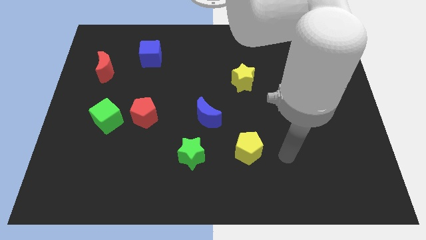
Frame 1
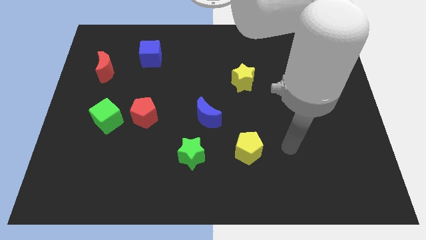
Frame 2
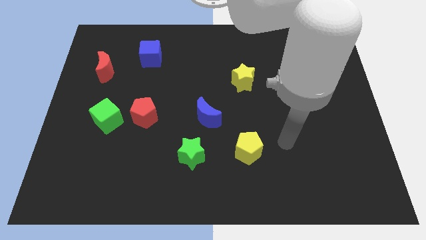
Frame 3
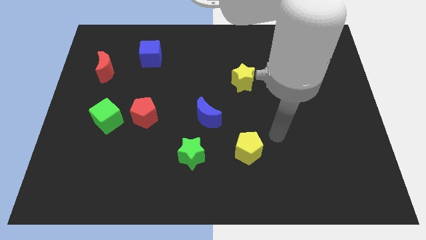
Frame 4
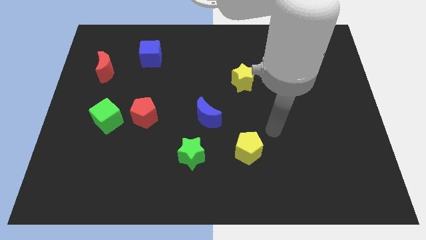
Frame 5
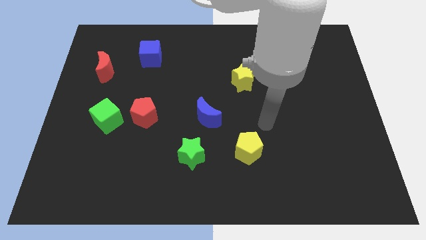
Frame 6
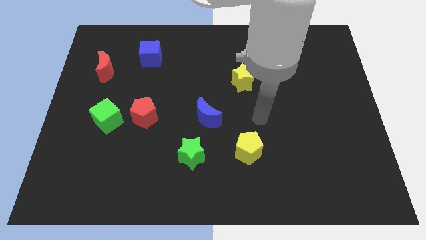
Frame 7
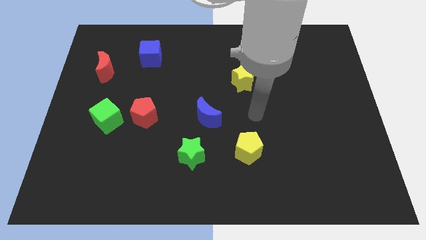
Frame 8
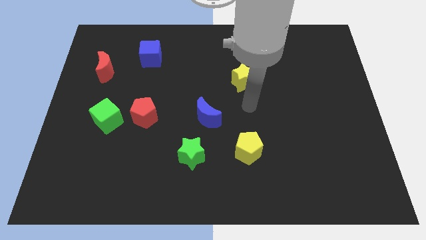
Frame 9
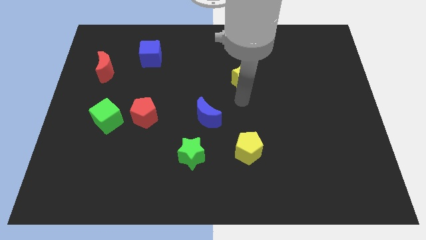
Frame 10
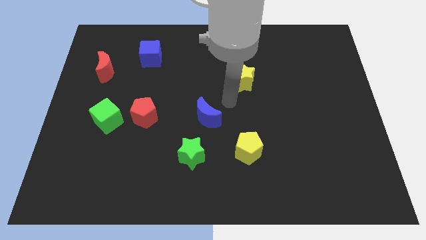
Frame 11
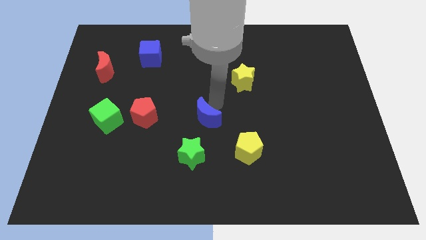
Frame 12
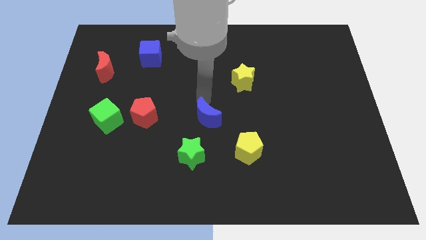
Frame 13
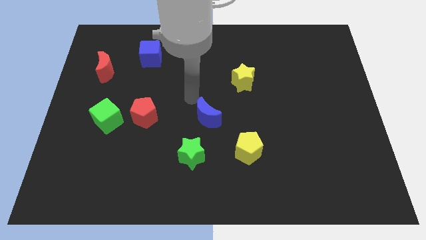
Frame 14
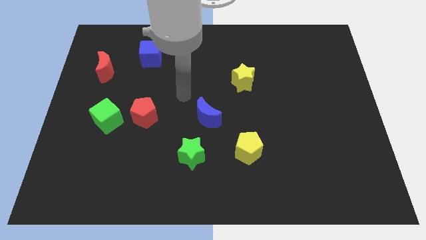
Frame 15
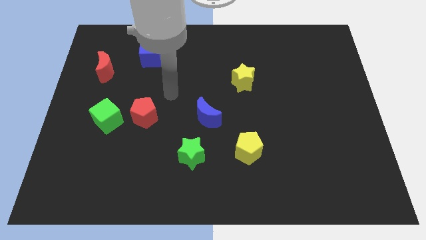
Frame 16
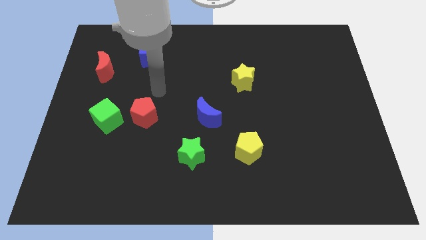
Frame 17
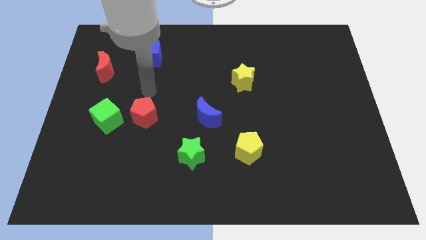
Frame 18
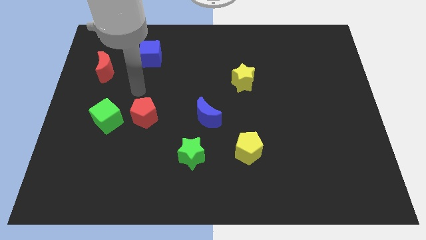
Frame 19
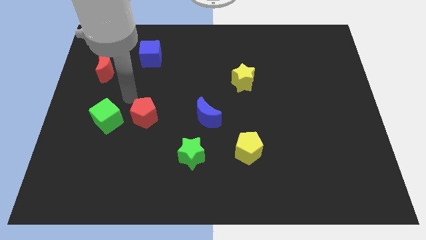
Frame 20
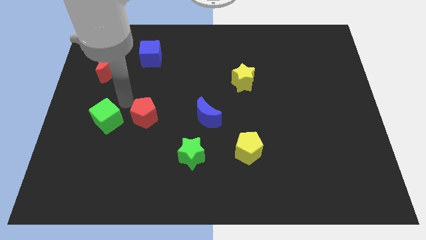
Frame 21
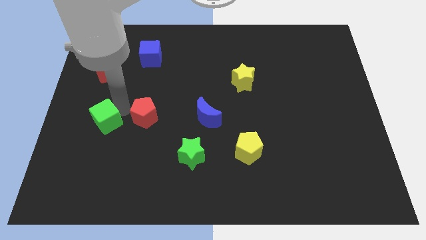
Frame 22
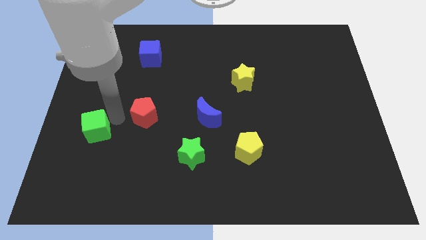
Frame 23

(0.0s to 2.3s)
separate the red pentagon from the green cube

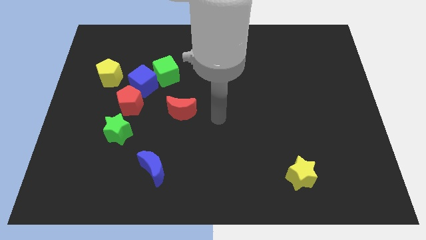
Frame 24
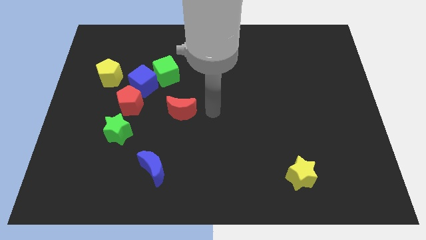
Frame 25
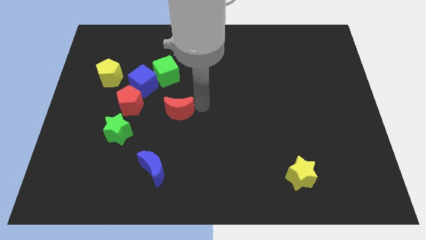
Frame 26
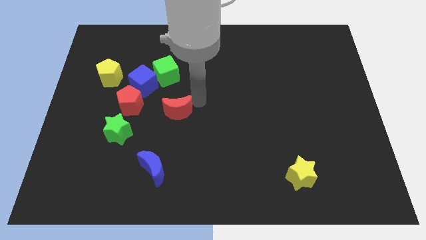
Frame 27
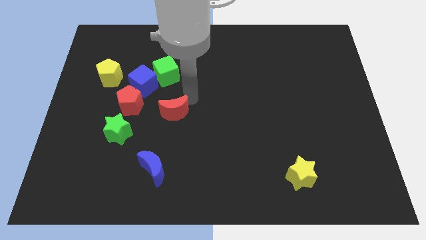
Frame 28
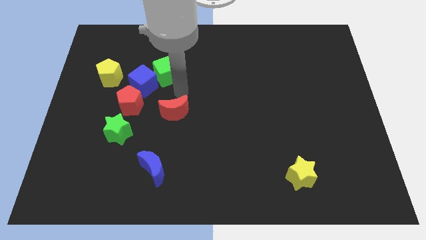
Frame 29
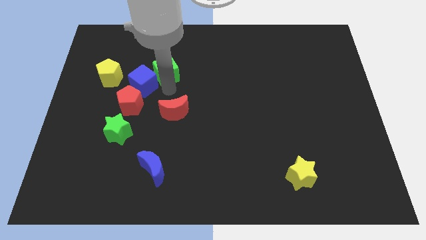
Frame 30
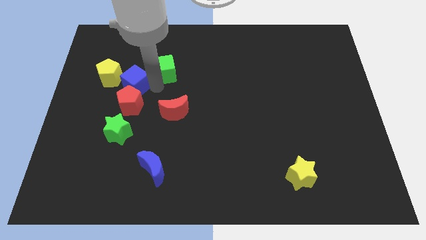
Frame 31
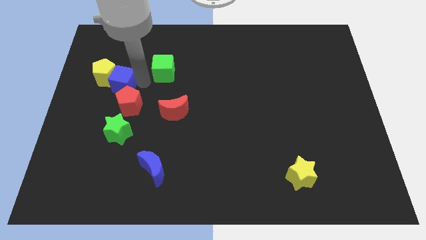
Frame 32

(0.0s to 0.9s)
pull the green cube apart from the blue cube

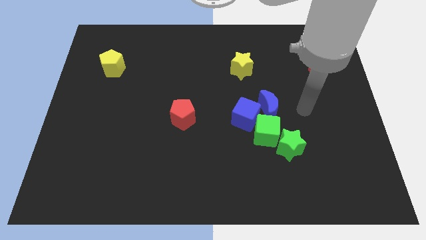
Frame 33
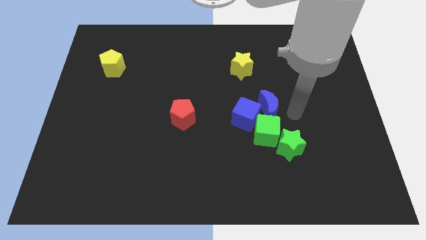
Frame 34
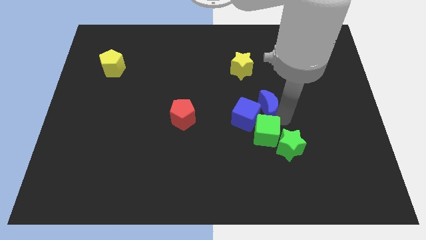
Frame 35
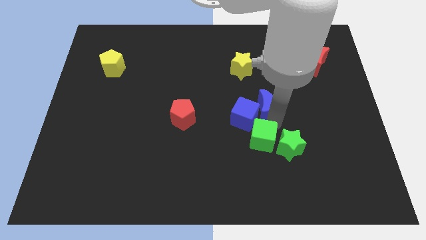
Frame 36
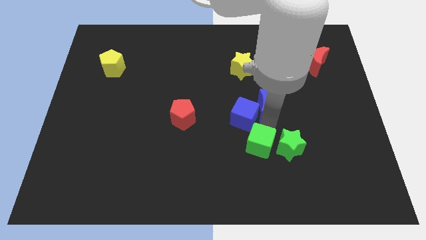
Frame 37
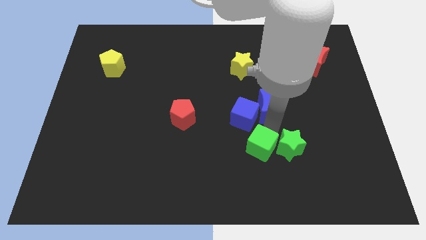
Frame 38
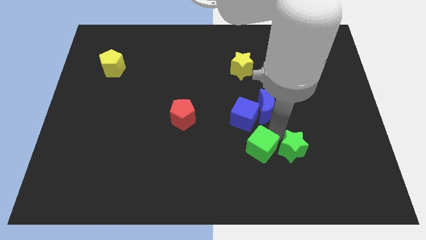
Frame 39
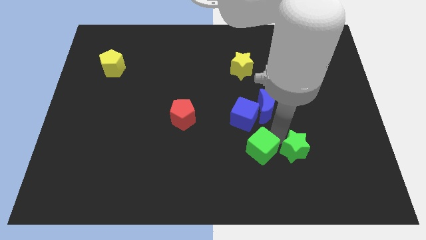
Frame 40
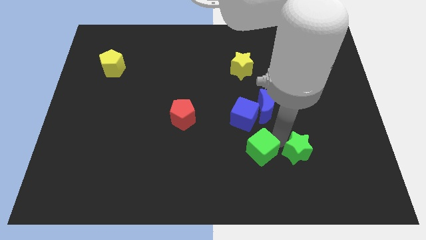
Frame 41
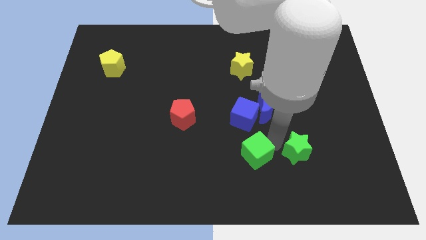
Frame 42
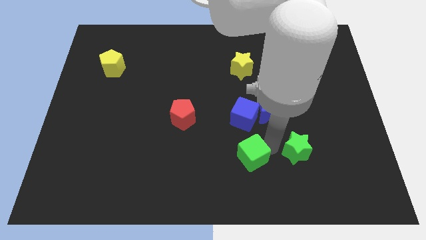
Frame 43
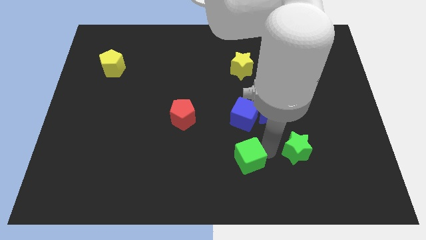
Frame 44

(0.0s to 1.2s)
move the green star away from the green cube

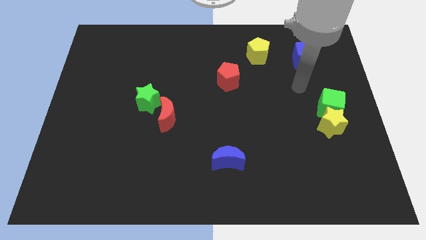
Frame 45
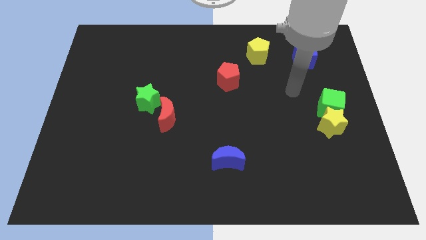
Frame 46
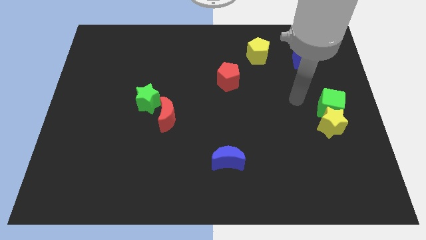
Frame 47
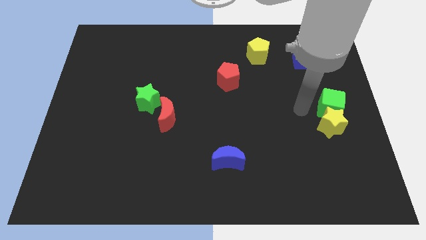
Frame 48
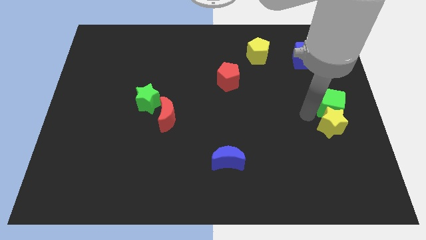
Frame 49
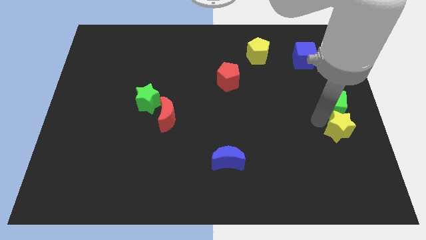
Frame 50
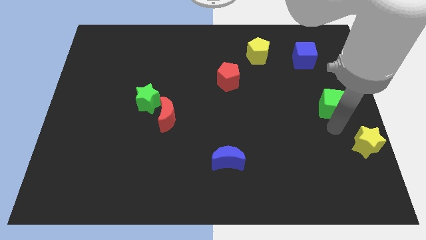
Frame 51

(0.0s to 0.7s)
separate the green cube from the yellow star

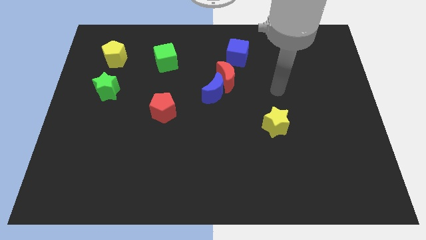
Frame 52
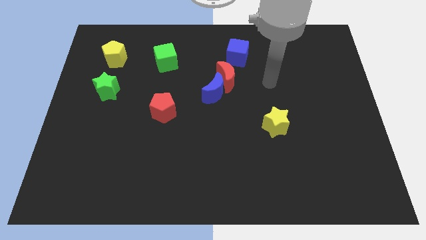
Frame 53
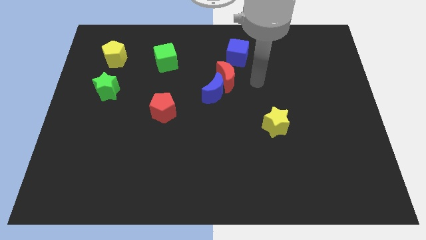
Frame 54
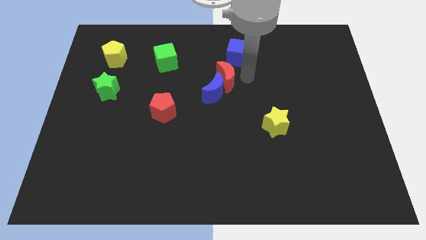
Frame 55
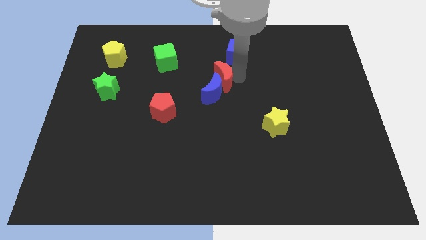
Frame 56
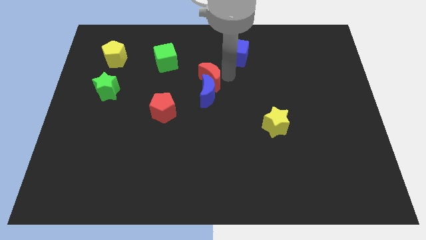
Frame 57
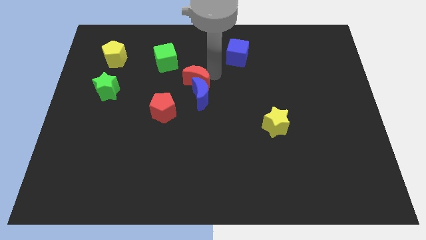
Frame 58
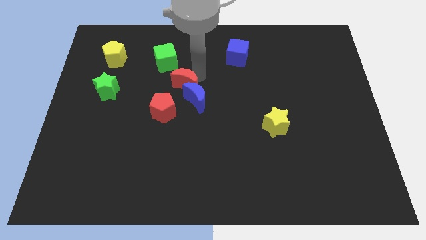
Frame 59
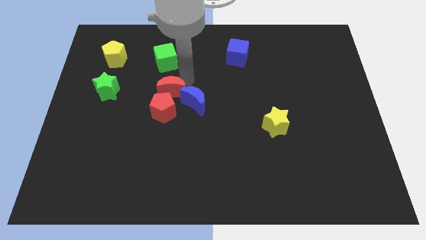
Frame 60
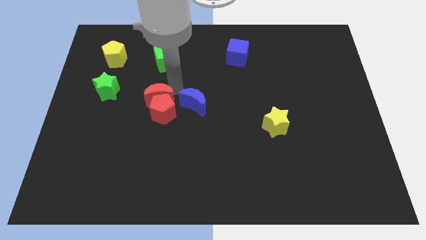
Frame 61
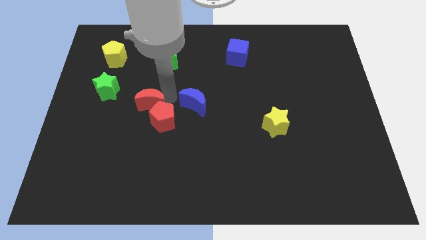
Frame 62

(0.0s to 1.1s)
pull the blue moon apart from the red moon

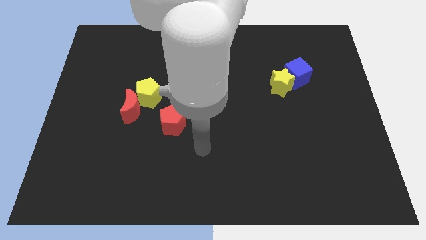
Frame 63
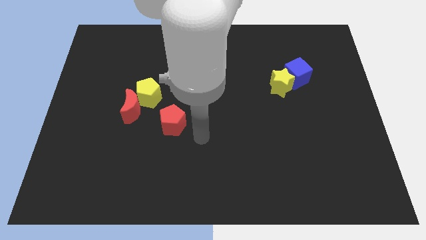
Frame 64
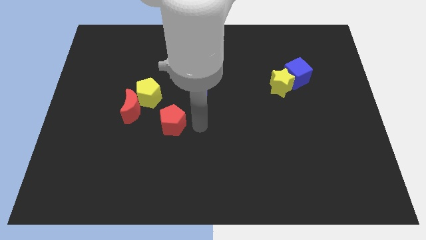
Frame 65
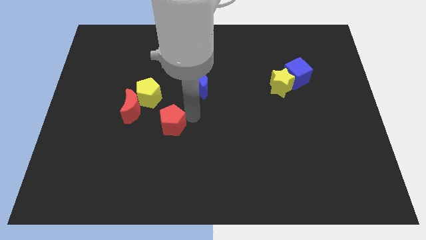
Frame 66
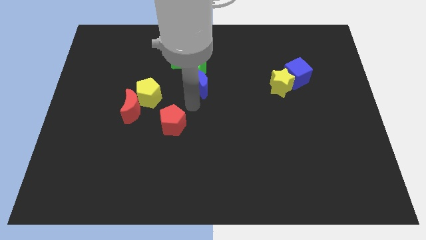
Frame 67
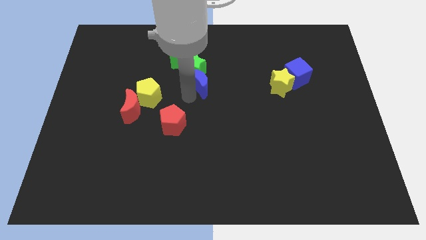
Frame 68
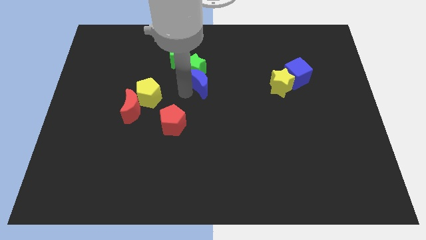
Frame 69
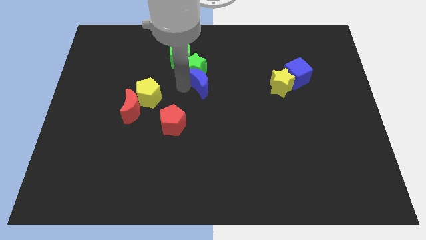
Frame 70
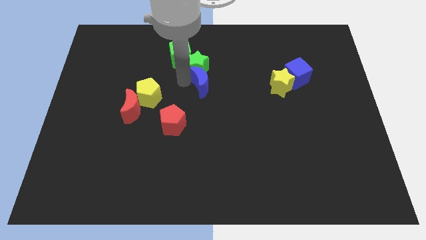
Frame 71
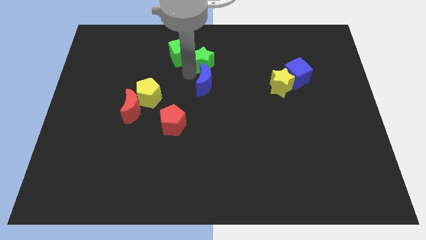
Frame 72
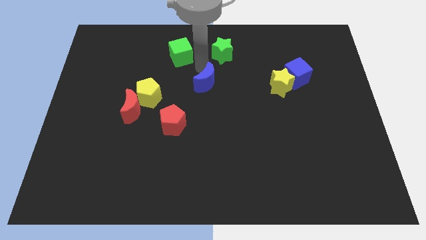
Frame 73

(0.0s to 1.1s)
move the blue moon away from the green star

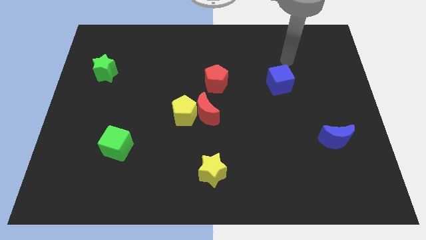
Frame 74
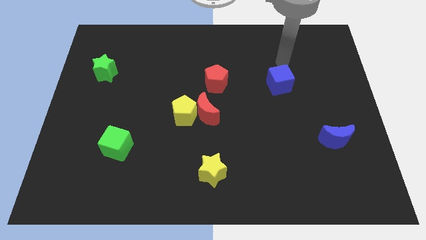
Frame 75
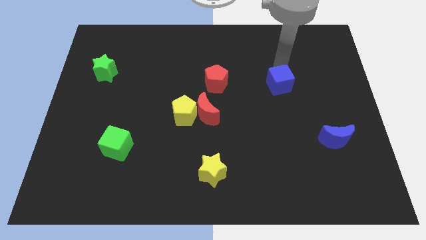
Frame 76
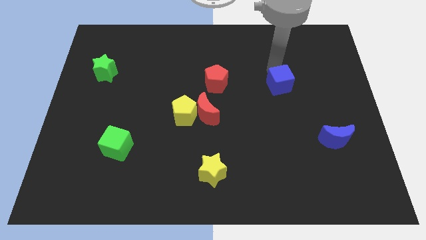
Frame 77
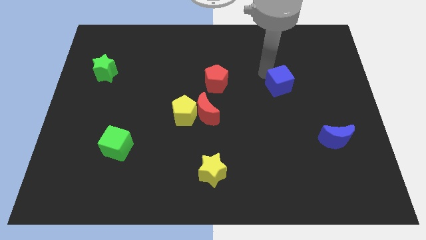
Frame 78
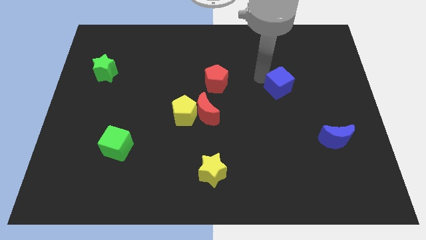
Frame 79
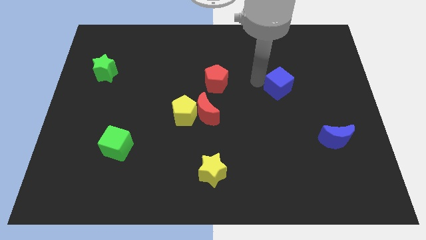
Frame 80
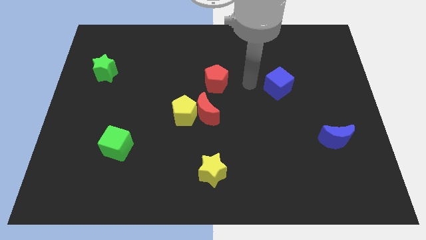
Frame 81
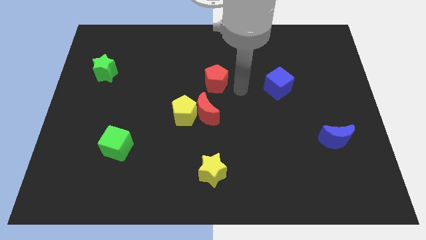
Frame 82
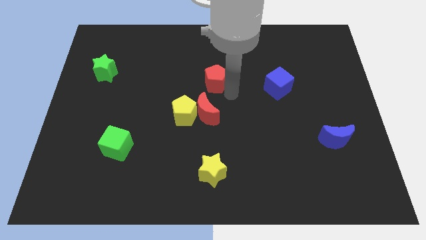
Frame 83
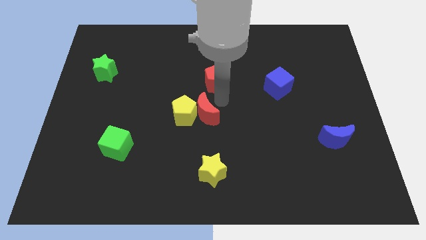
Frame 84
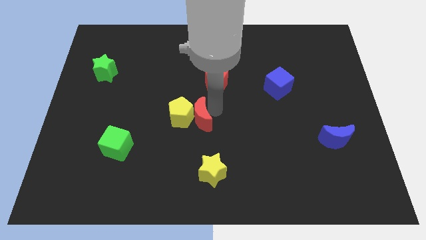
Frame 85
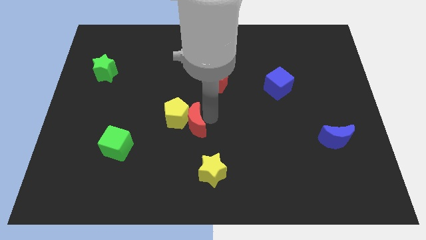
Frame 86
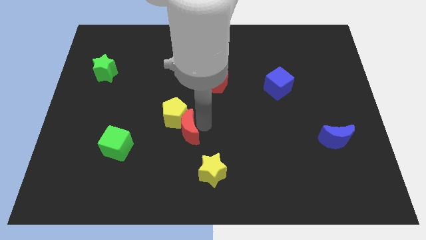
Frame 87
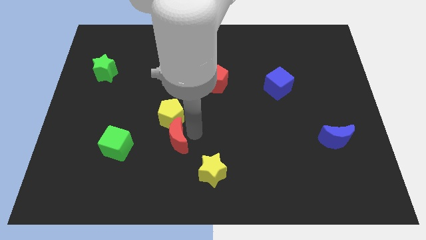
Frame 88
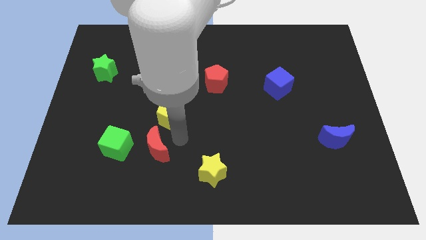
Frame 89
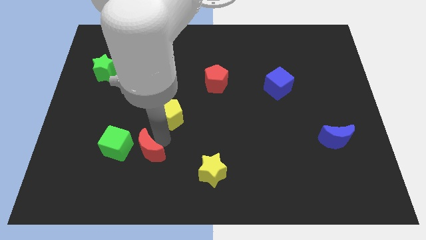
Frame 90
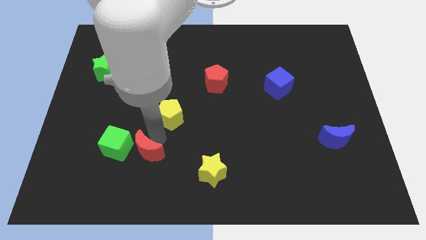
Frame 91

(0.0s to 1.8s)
separate the yellow pentagon from the red moon

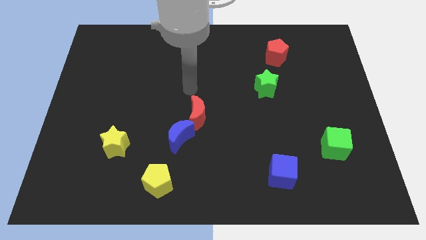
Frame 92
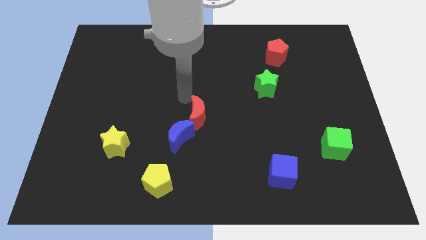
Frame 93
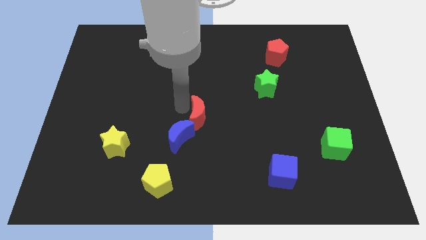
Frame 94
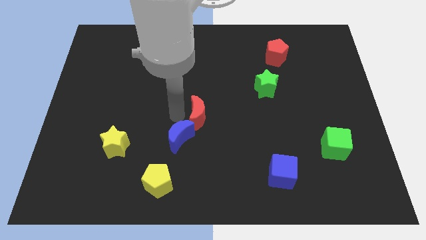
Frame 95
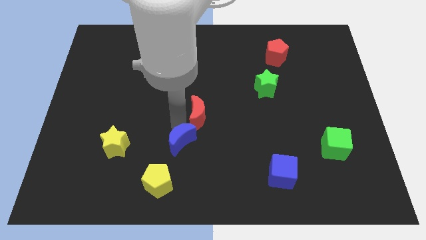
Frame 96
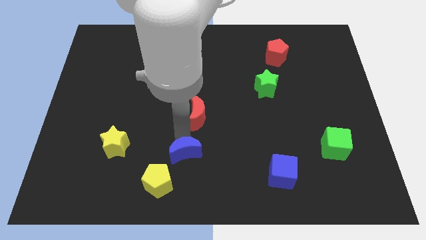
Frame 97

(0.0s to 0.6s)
move the red moon away from the blue moon
